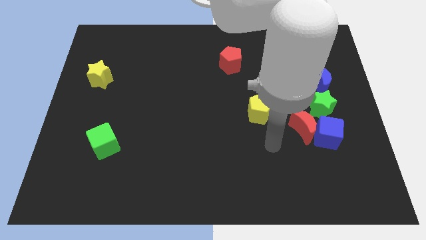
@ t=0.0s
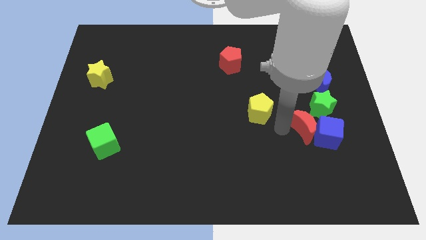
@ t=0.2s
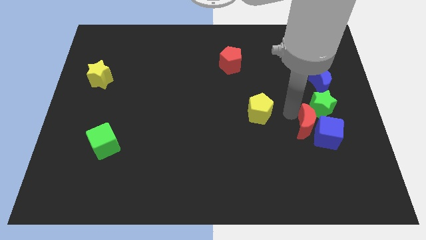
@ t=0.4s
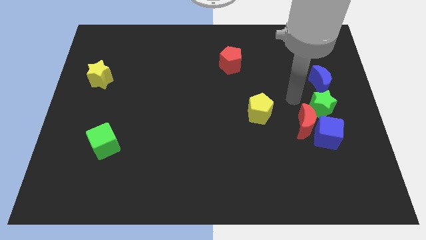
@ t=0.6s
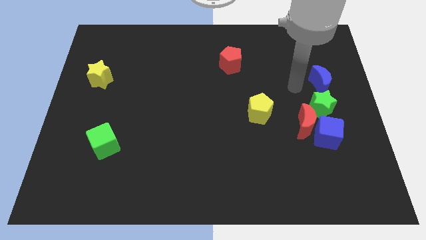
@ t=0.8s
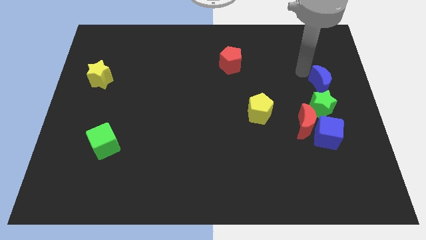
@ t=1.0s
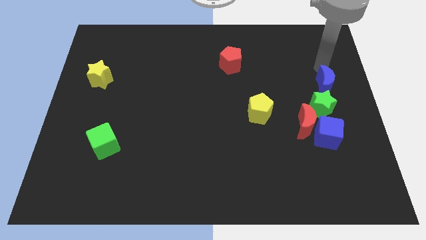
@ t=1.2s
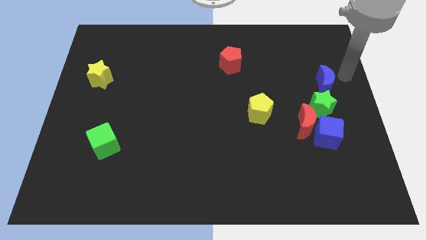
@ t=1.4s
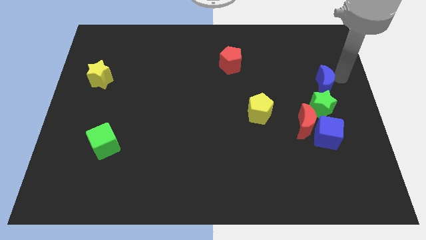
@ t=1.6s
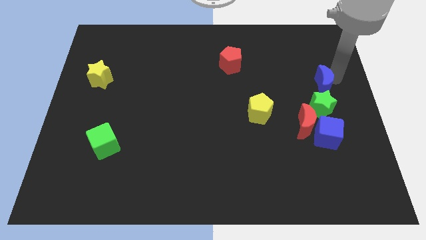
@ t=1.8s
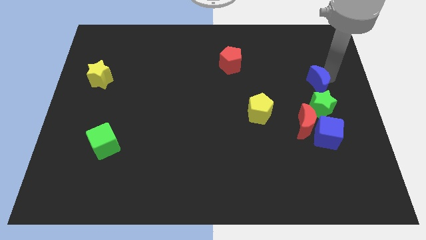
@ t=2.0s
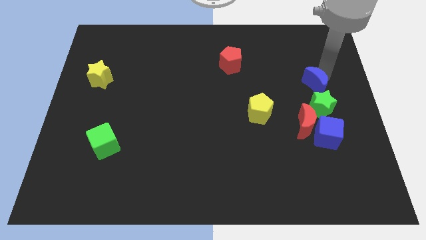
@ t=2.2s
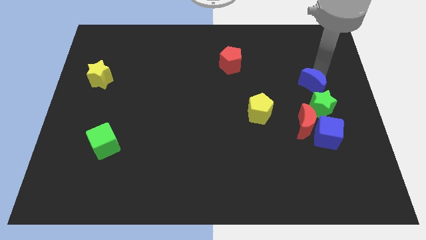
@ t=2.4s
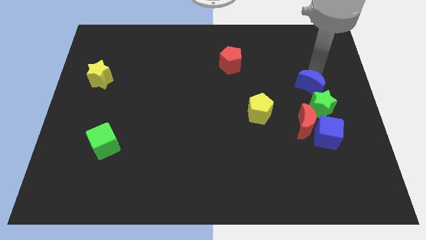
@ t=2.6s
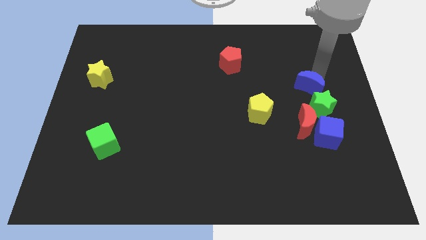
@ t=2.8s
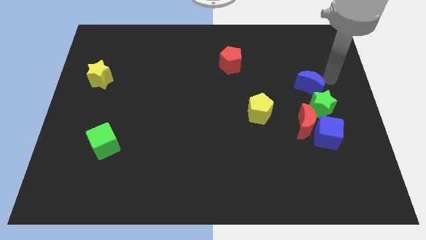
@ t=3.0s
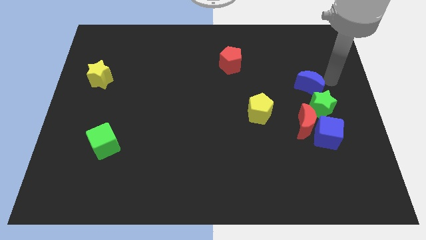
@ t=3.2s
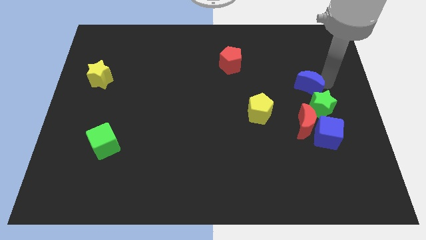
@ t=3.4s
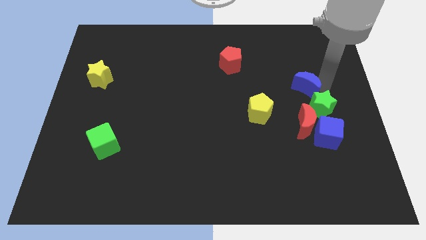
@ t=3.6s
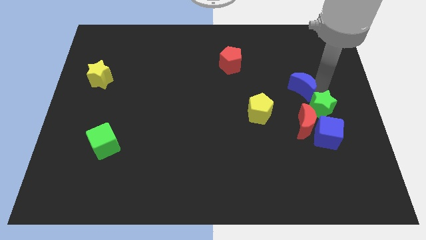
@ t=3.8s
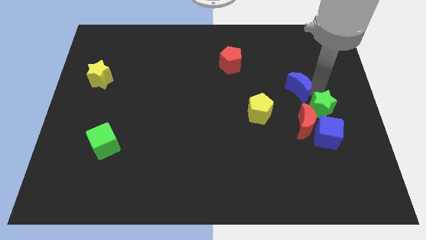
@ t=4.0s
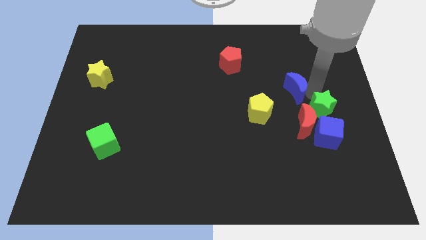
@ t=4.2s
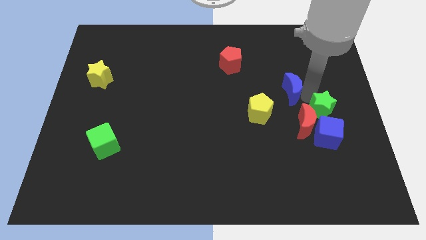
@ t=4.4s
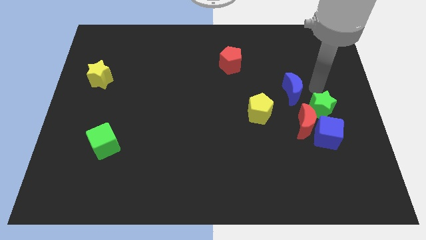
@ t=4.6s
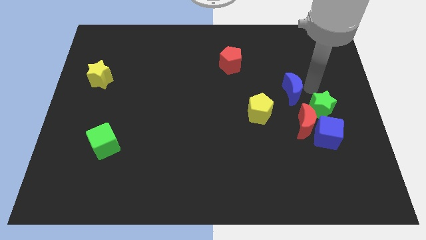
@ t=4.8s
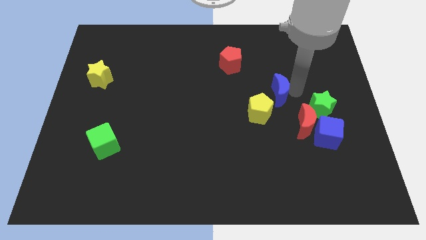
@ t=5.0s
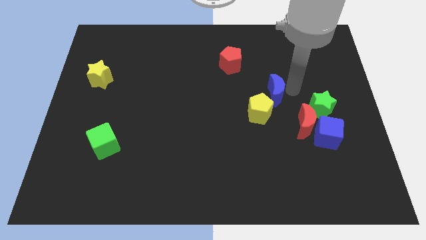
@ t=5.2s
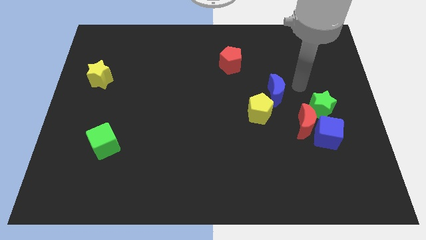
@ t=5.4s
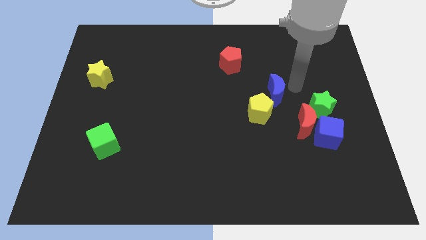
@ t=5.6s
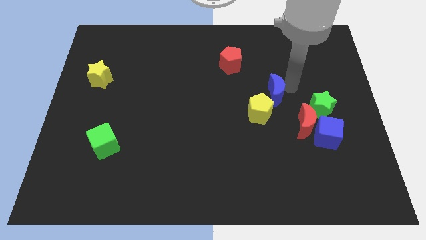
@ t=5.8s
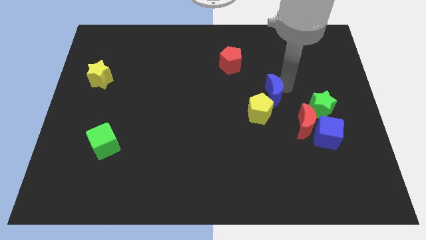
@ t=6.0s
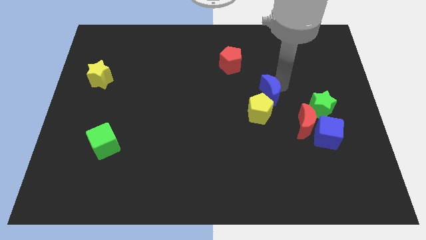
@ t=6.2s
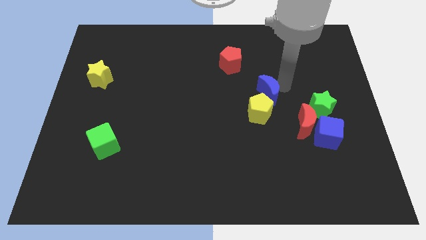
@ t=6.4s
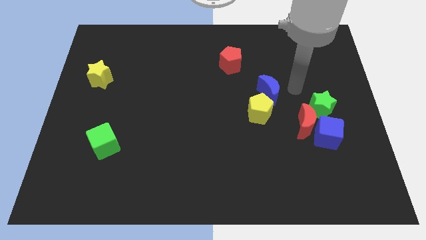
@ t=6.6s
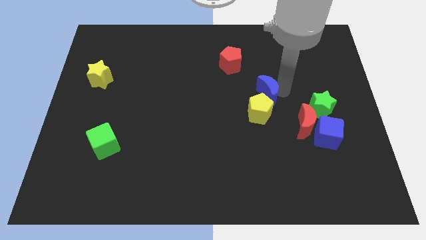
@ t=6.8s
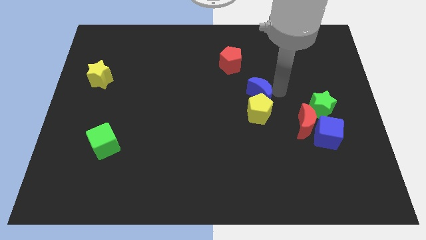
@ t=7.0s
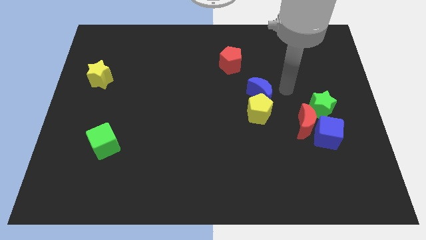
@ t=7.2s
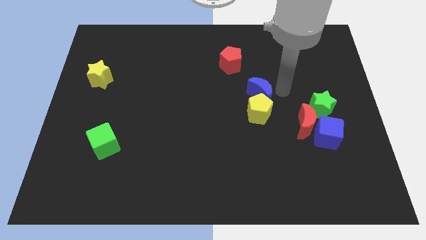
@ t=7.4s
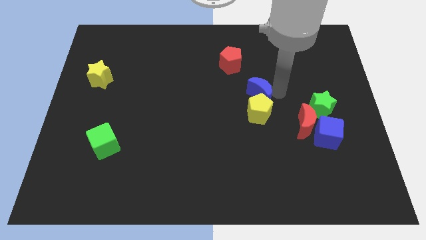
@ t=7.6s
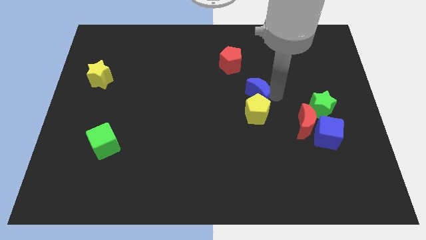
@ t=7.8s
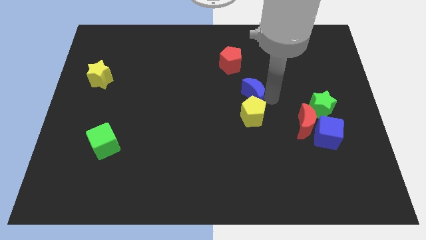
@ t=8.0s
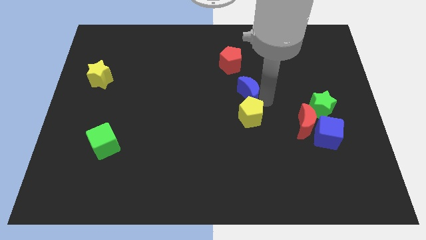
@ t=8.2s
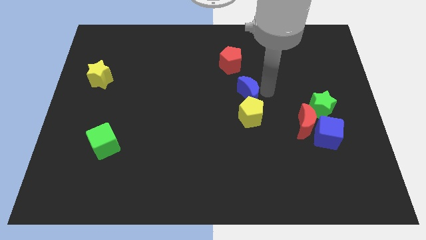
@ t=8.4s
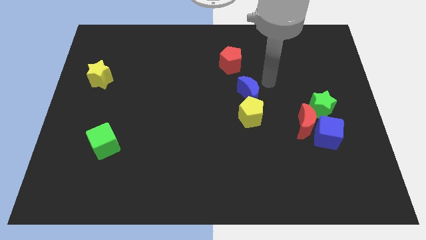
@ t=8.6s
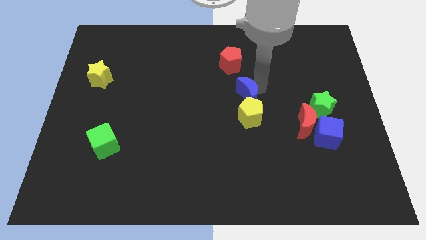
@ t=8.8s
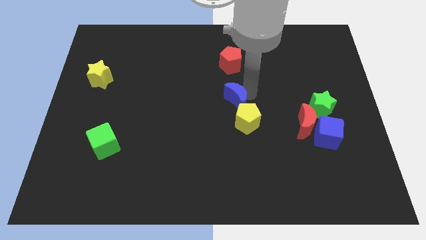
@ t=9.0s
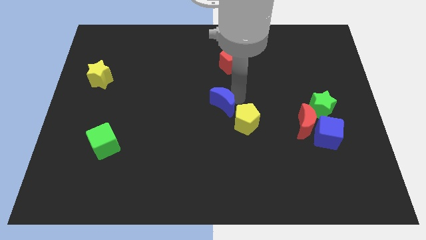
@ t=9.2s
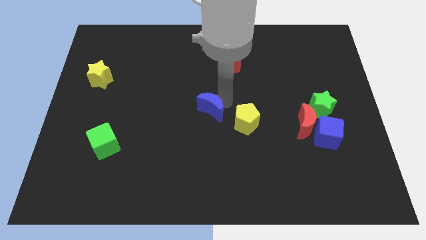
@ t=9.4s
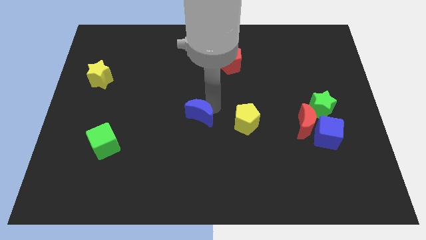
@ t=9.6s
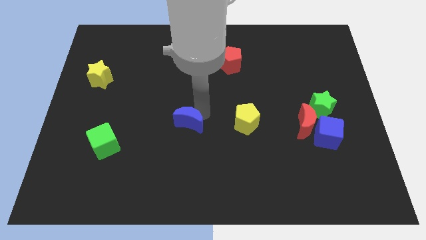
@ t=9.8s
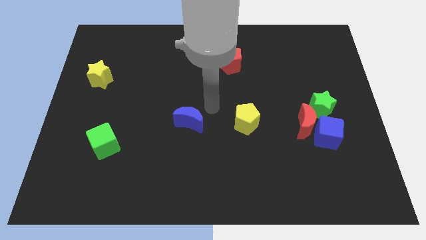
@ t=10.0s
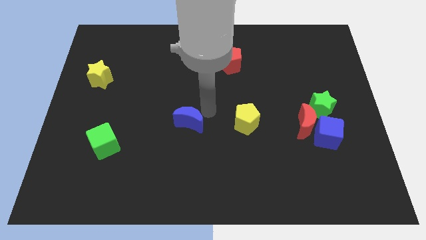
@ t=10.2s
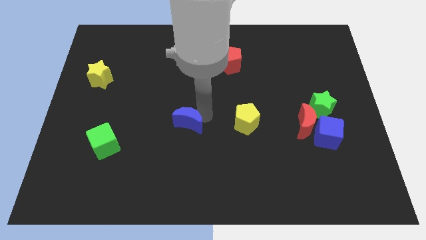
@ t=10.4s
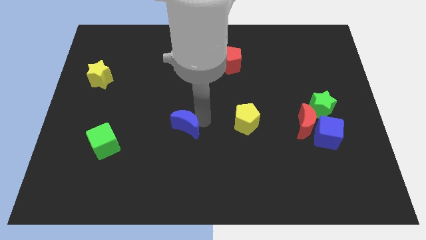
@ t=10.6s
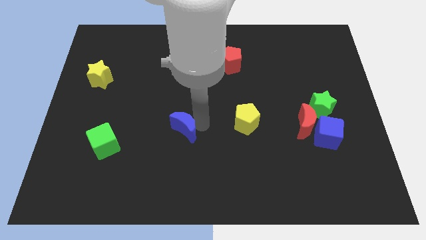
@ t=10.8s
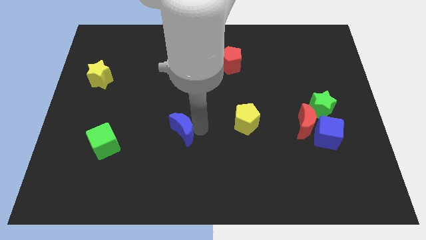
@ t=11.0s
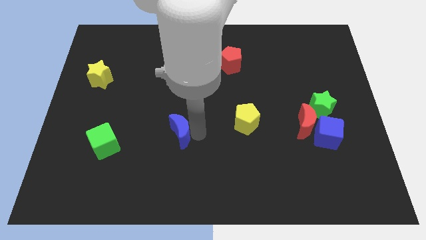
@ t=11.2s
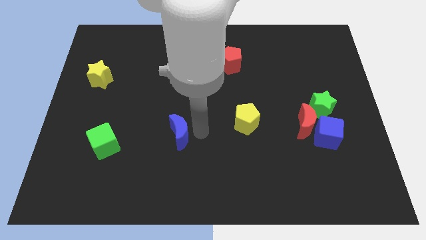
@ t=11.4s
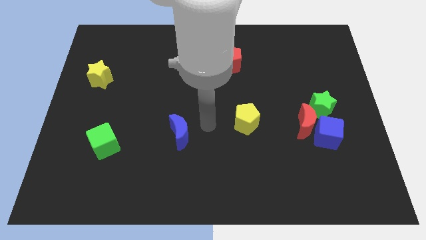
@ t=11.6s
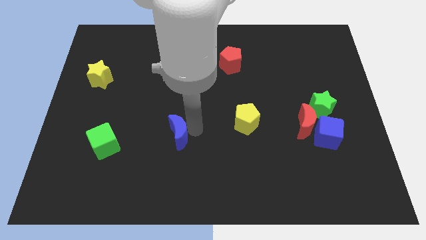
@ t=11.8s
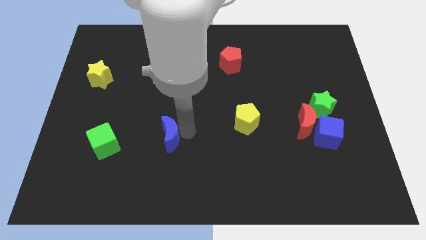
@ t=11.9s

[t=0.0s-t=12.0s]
slide the blue moon to the right of the green cube

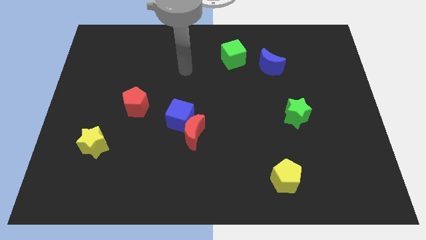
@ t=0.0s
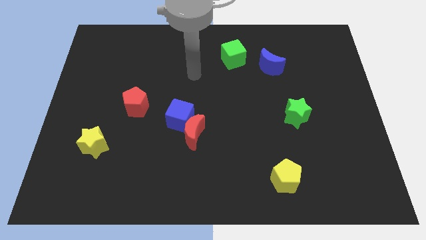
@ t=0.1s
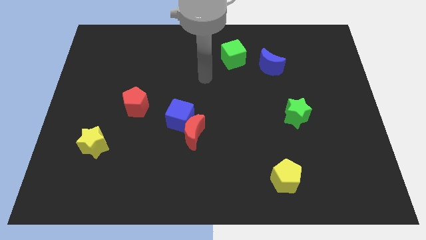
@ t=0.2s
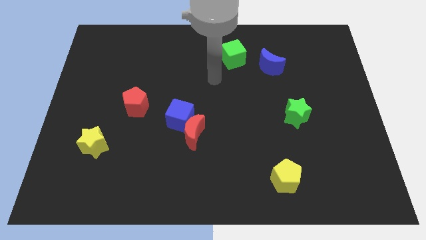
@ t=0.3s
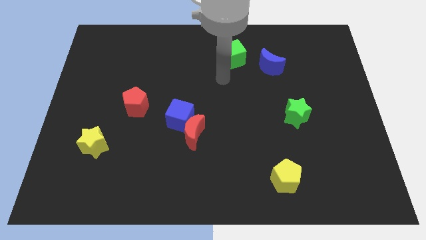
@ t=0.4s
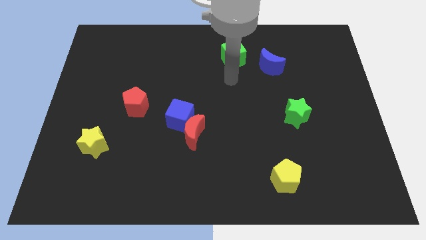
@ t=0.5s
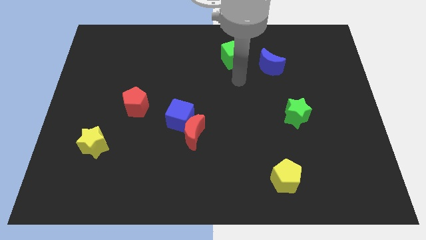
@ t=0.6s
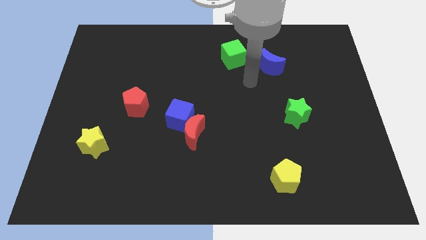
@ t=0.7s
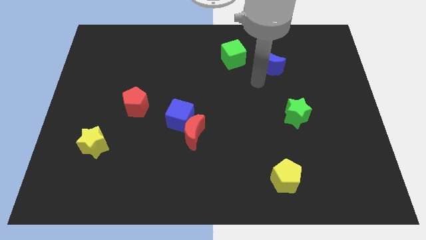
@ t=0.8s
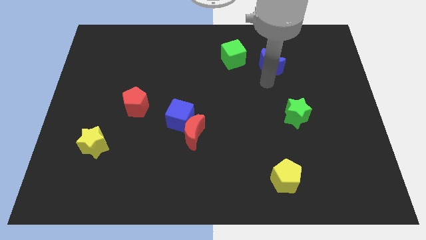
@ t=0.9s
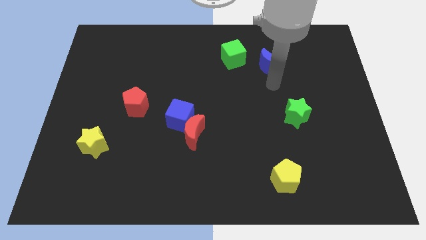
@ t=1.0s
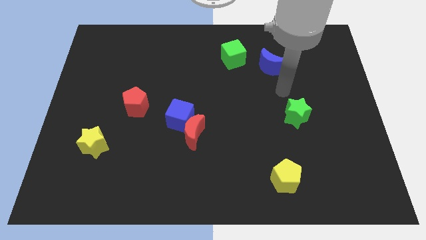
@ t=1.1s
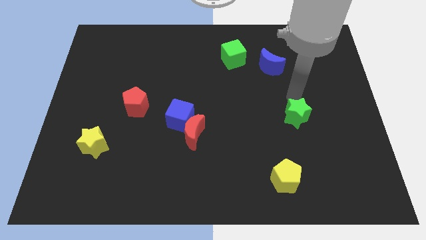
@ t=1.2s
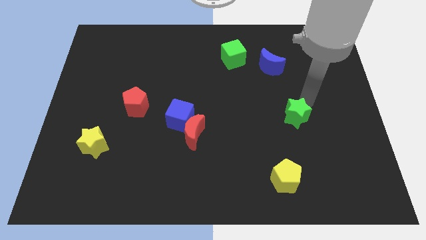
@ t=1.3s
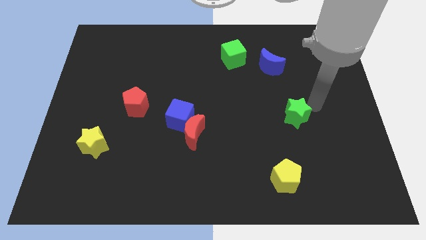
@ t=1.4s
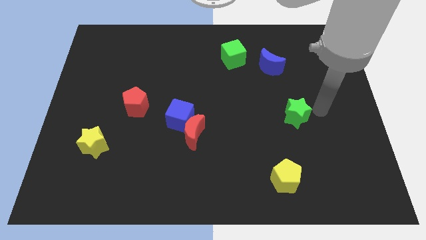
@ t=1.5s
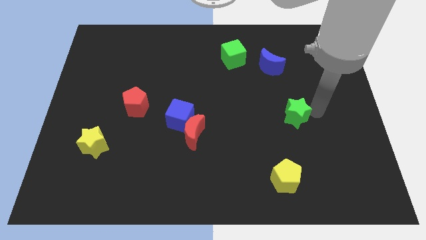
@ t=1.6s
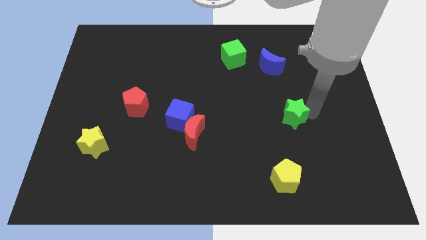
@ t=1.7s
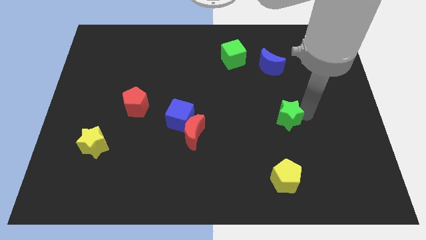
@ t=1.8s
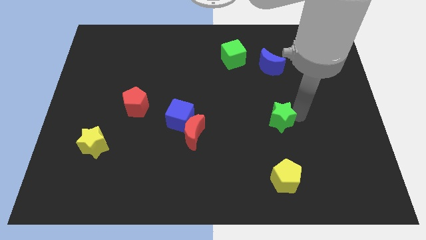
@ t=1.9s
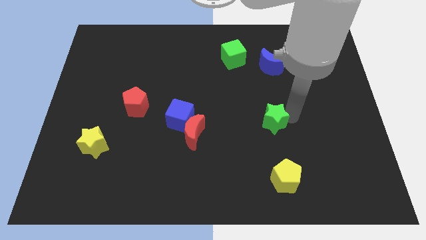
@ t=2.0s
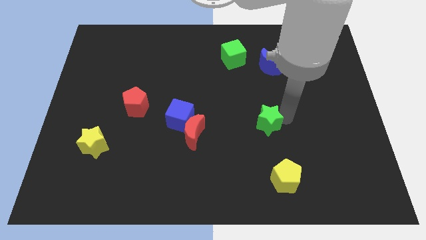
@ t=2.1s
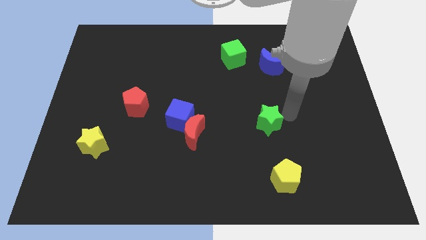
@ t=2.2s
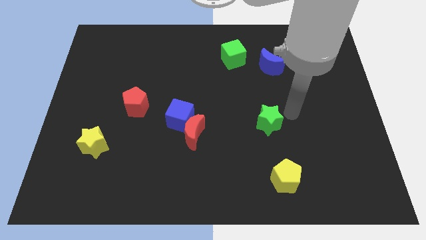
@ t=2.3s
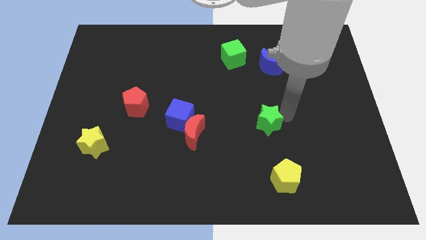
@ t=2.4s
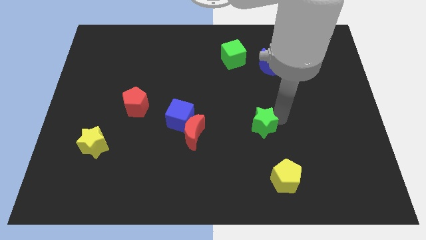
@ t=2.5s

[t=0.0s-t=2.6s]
put the green star to the right of the red moon

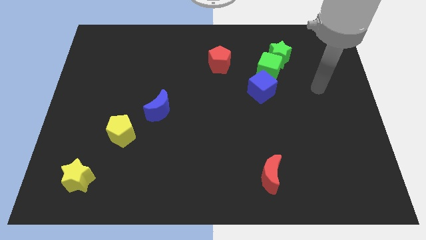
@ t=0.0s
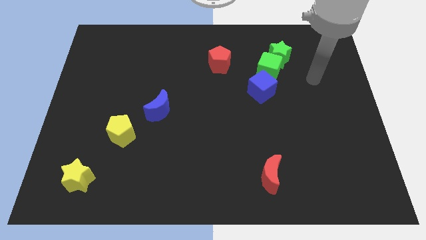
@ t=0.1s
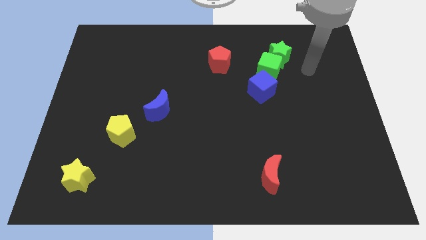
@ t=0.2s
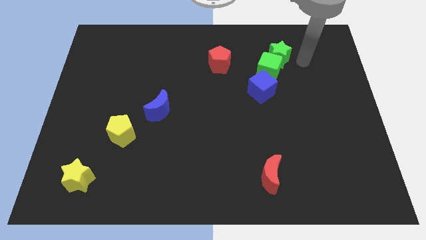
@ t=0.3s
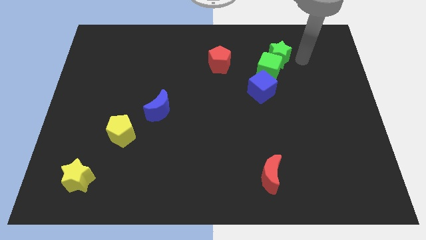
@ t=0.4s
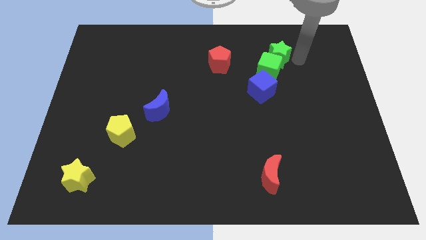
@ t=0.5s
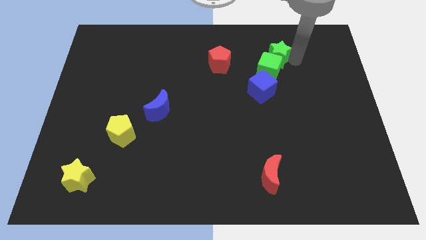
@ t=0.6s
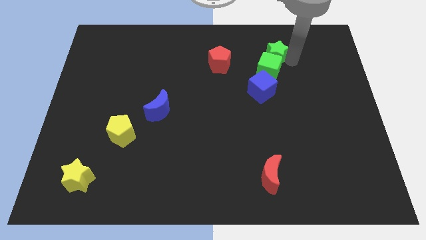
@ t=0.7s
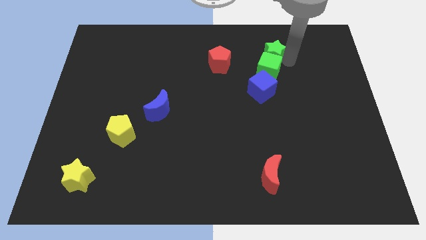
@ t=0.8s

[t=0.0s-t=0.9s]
put the green star diagonally up and to the left of the green cube
